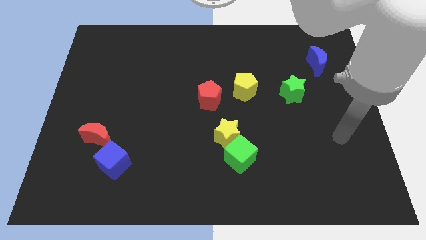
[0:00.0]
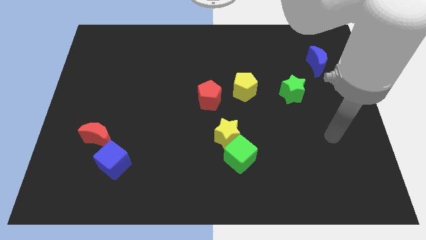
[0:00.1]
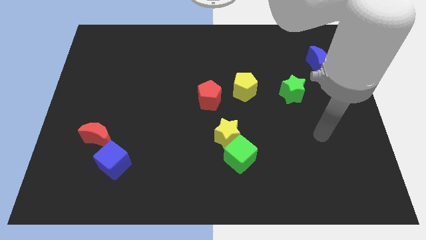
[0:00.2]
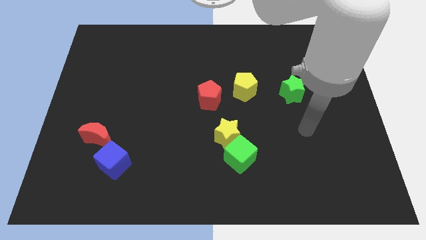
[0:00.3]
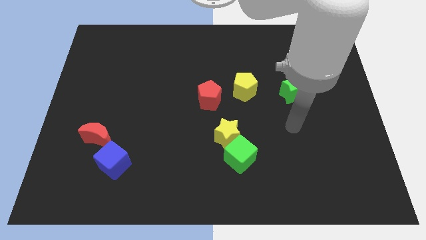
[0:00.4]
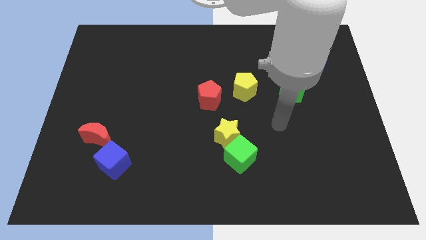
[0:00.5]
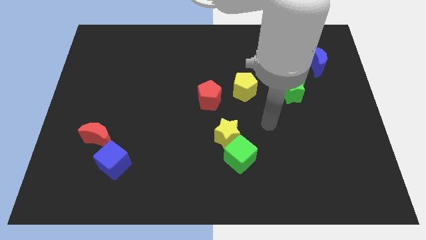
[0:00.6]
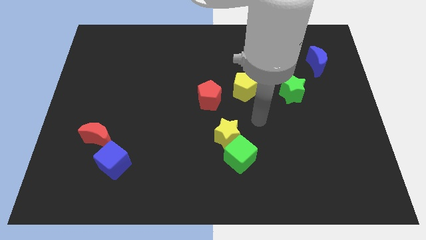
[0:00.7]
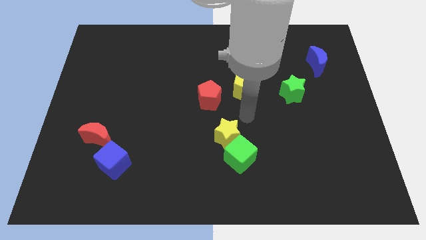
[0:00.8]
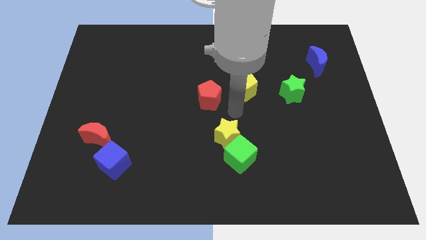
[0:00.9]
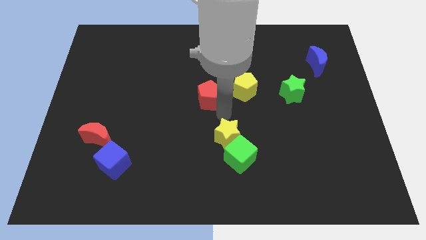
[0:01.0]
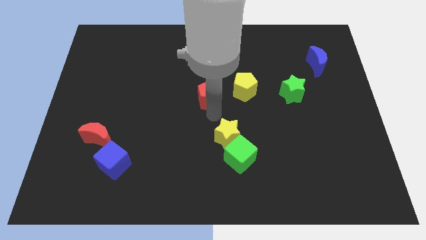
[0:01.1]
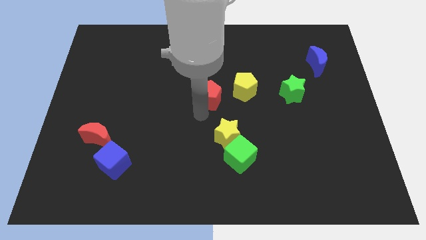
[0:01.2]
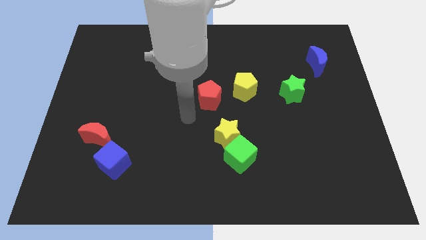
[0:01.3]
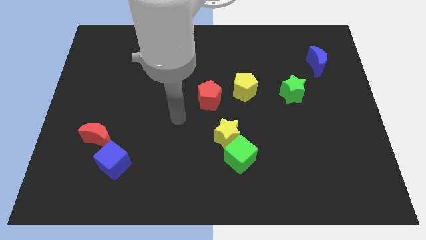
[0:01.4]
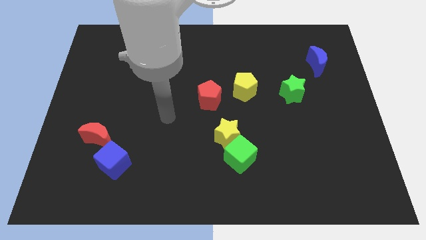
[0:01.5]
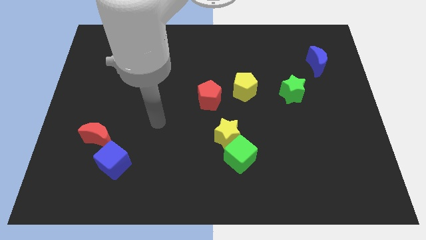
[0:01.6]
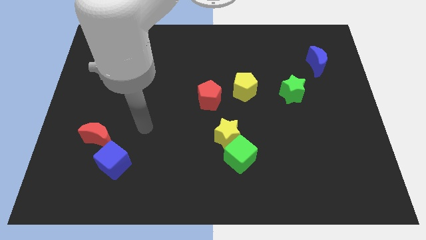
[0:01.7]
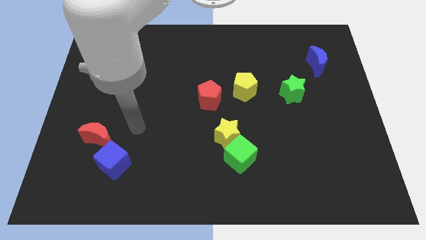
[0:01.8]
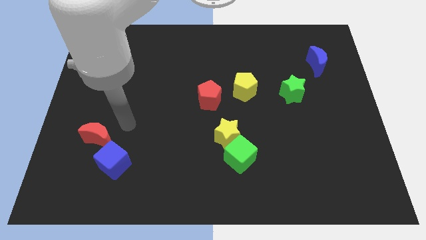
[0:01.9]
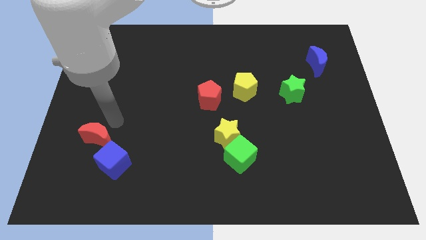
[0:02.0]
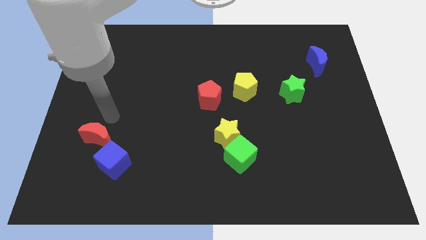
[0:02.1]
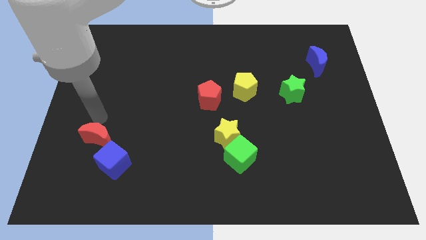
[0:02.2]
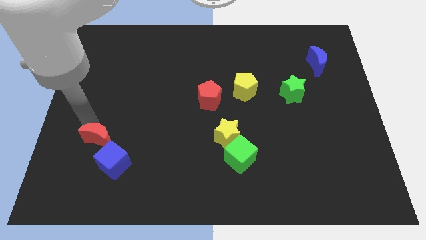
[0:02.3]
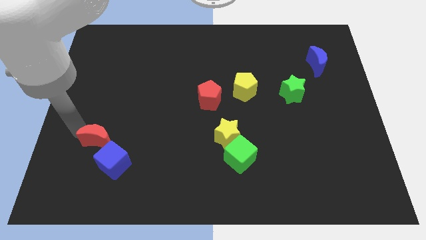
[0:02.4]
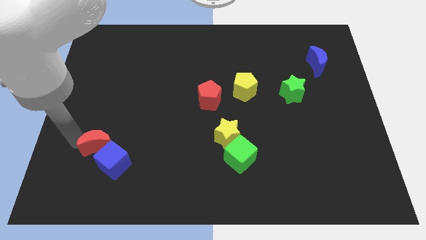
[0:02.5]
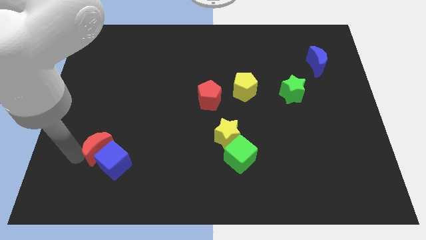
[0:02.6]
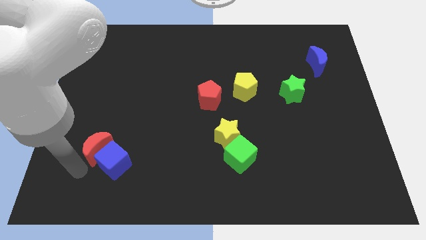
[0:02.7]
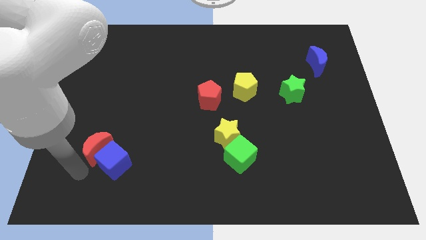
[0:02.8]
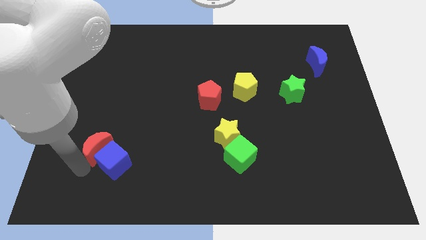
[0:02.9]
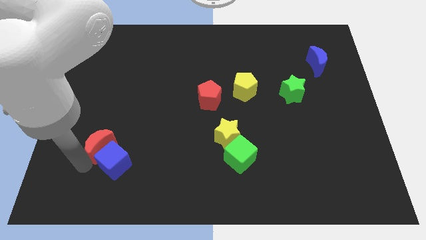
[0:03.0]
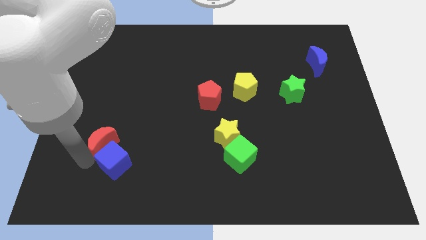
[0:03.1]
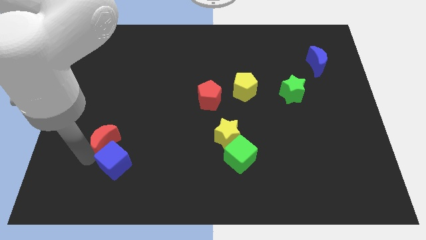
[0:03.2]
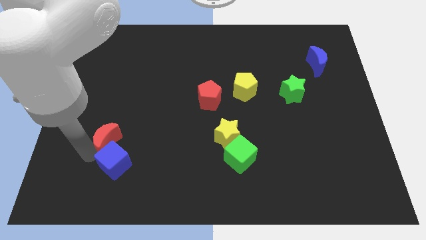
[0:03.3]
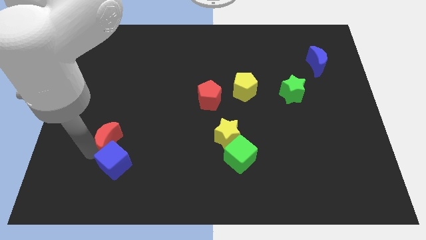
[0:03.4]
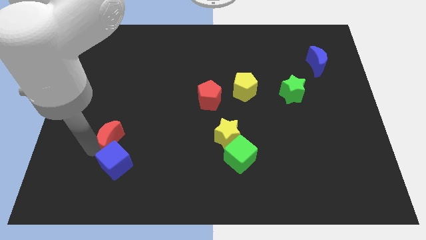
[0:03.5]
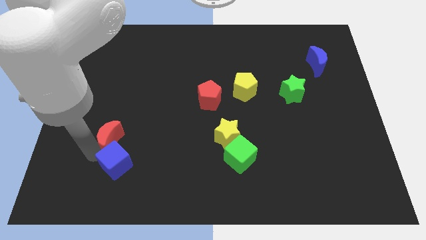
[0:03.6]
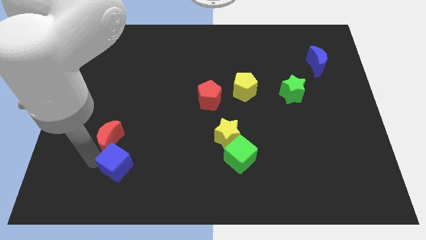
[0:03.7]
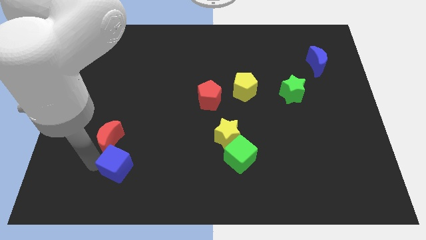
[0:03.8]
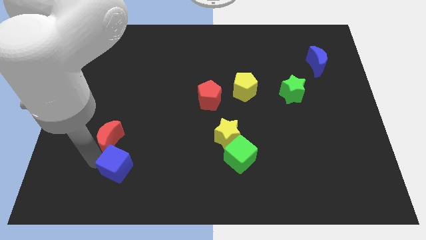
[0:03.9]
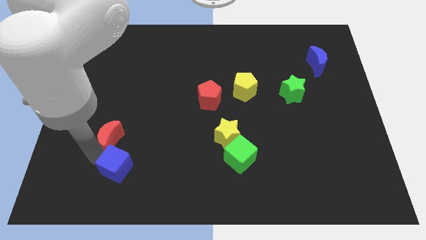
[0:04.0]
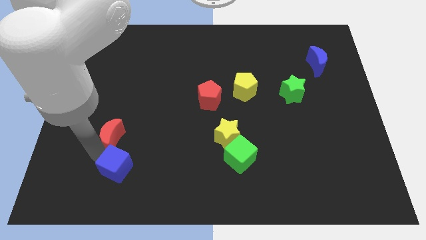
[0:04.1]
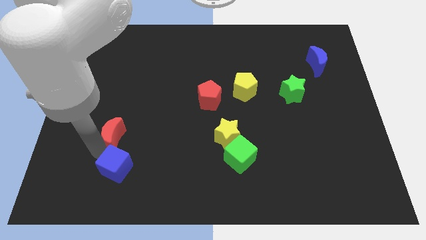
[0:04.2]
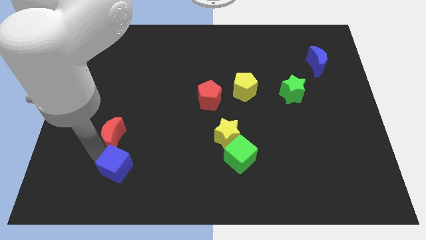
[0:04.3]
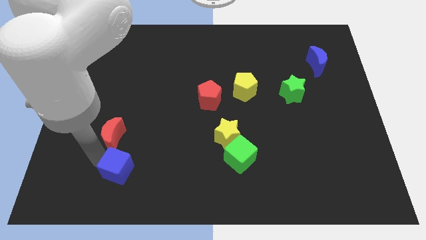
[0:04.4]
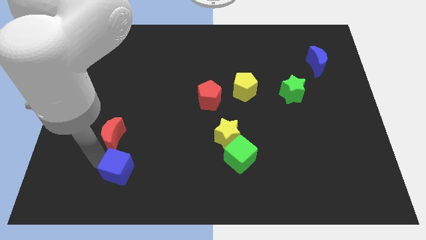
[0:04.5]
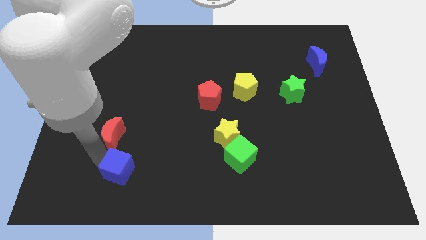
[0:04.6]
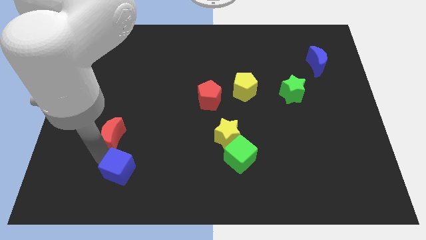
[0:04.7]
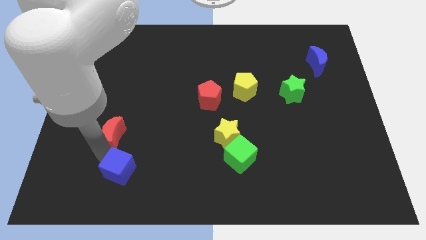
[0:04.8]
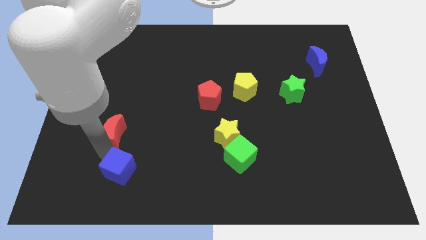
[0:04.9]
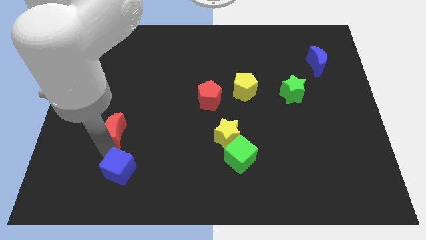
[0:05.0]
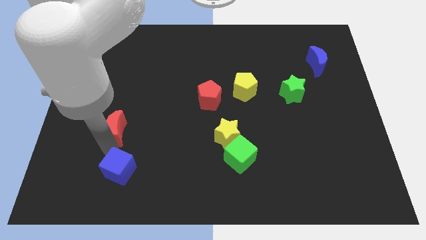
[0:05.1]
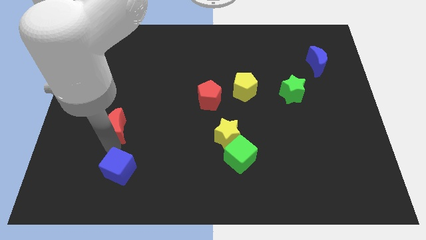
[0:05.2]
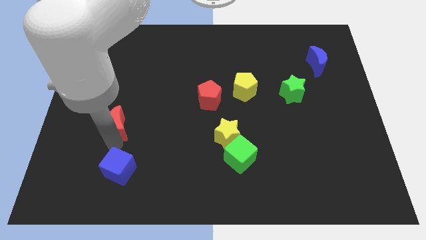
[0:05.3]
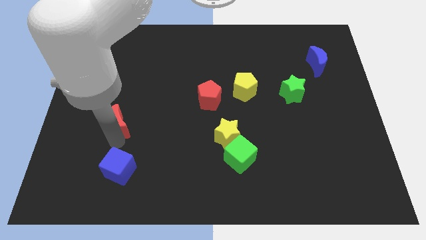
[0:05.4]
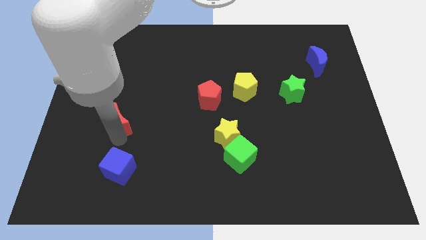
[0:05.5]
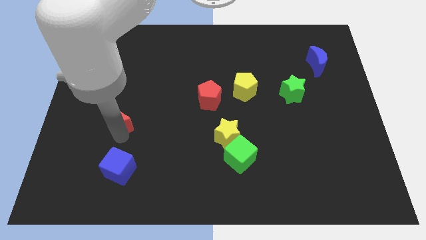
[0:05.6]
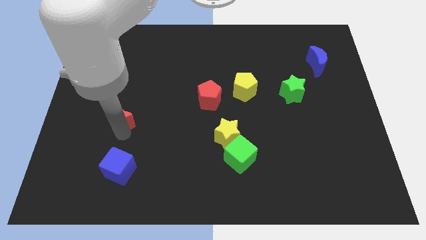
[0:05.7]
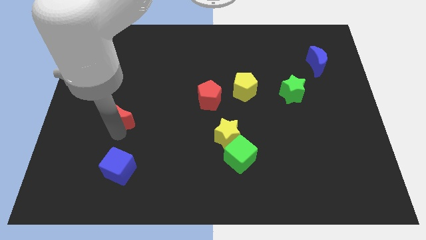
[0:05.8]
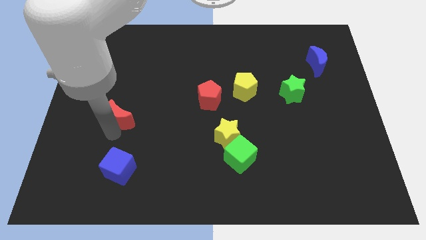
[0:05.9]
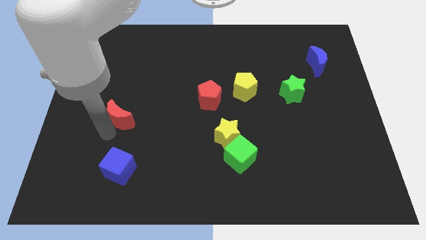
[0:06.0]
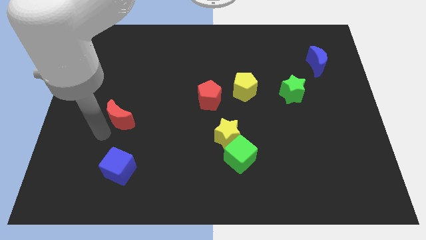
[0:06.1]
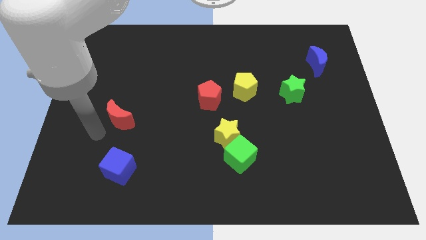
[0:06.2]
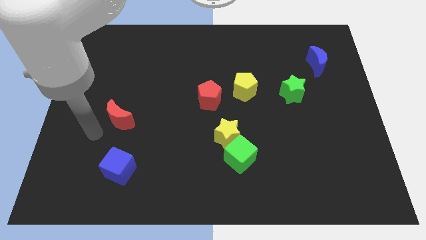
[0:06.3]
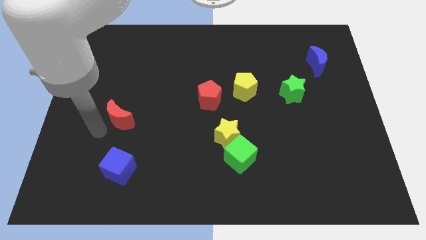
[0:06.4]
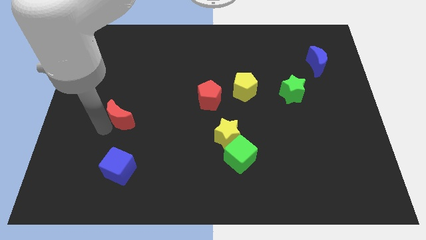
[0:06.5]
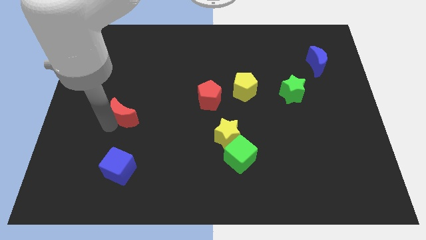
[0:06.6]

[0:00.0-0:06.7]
slightly push the red moon upwards and then right

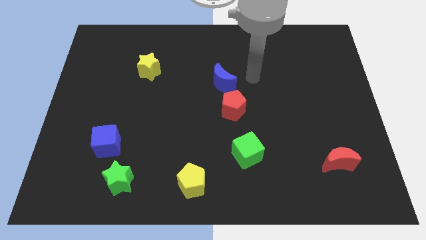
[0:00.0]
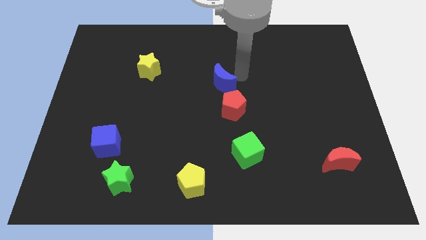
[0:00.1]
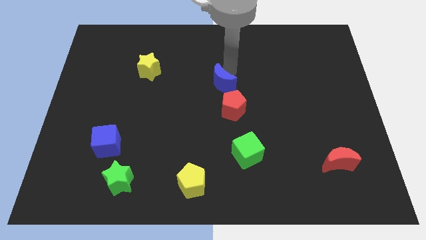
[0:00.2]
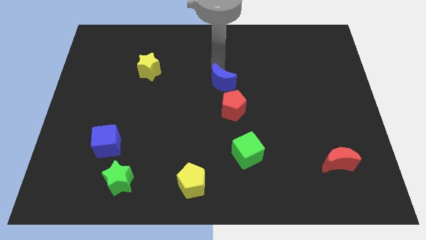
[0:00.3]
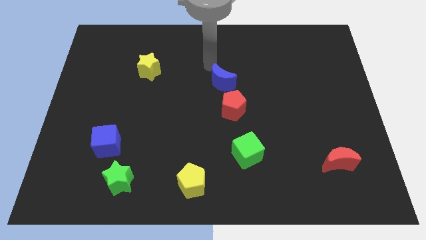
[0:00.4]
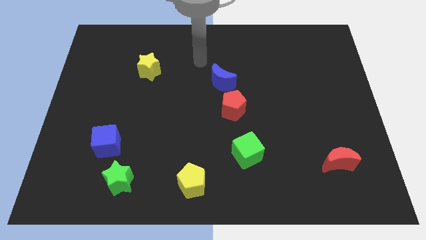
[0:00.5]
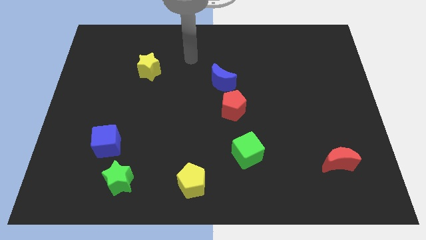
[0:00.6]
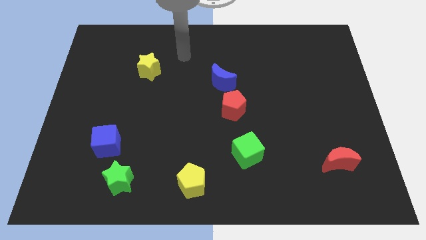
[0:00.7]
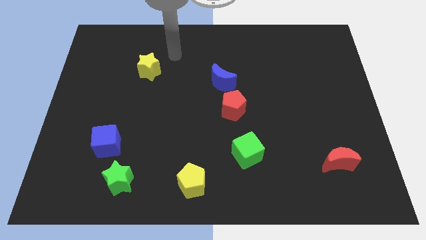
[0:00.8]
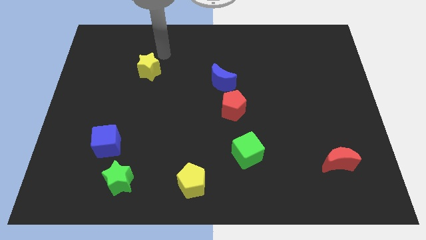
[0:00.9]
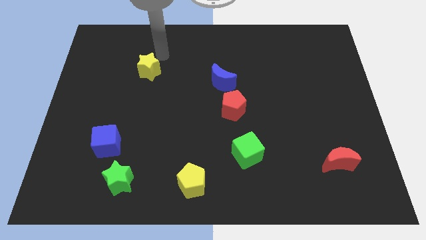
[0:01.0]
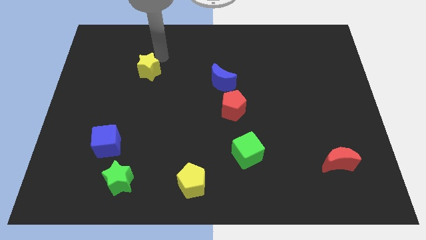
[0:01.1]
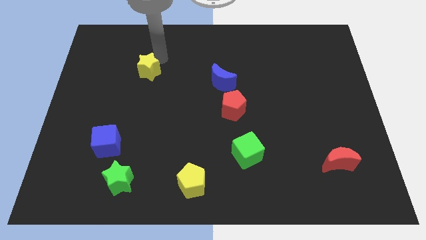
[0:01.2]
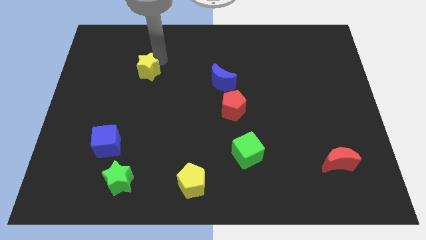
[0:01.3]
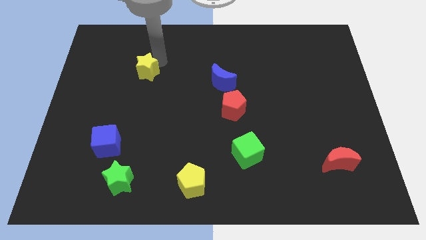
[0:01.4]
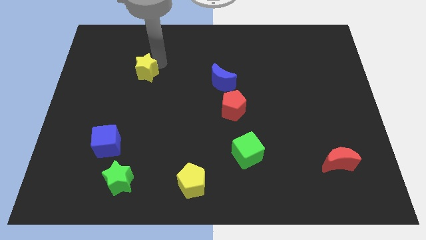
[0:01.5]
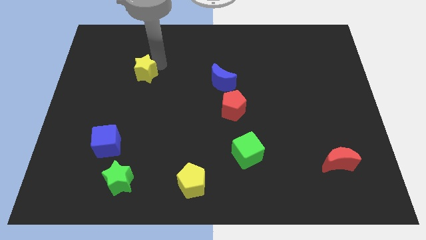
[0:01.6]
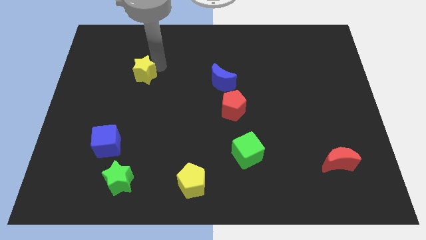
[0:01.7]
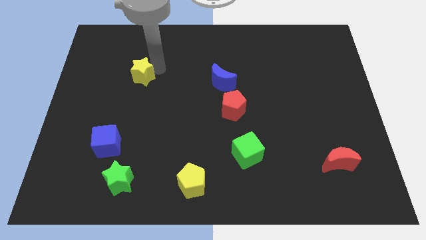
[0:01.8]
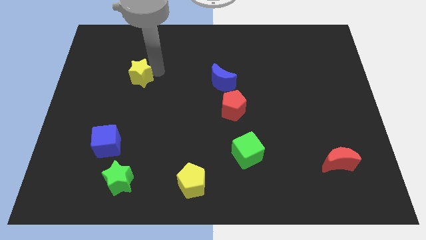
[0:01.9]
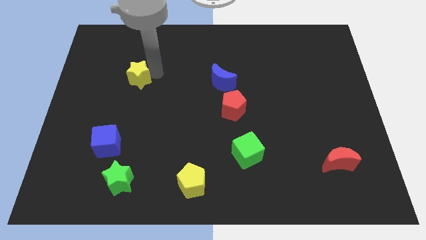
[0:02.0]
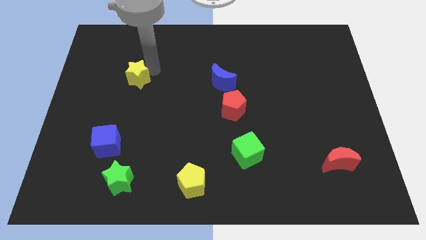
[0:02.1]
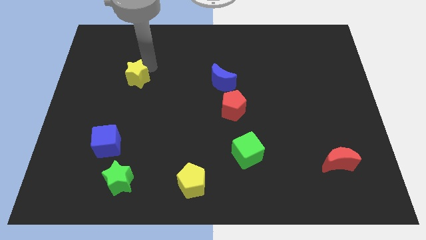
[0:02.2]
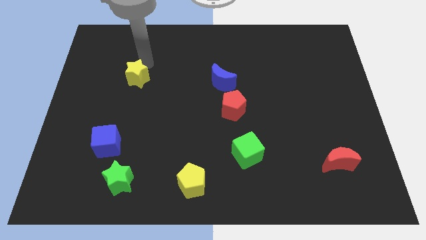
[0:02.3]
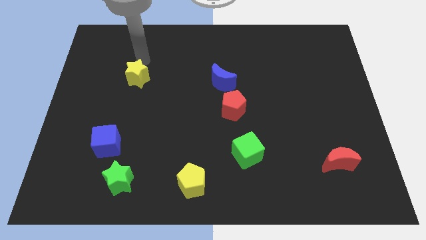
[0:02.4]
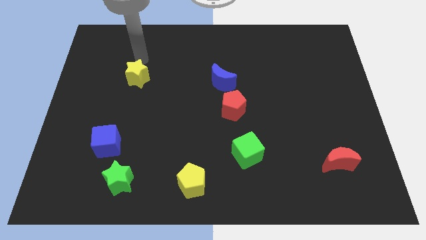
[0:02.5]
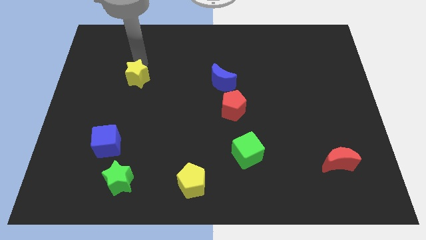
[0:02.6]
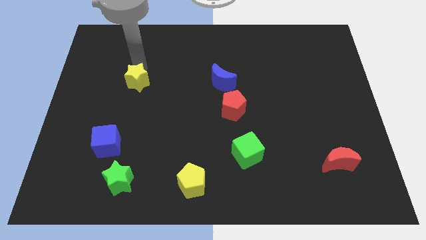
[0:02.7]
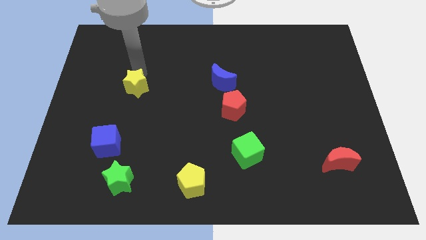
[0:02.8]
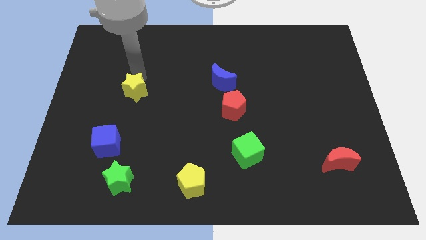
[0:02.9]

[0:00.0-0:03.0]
slide the yellow star somewhat downwards
